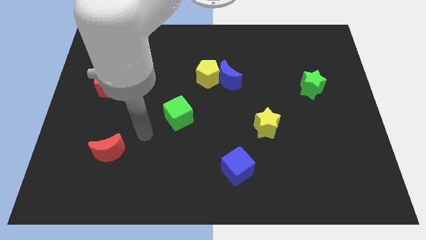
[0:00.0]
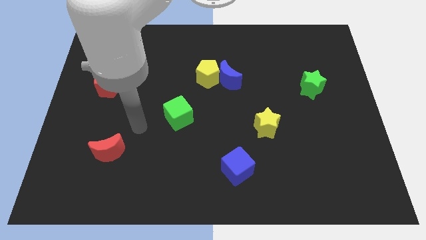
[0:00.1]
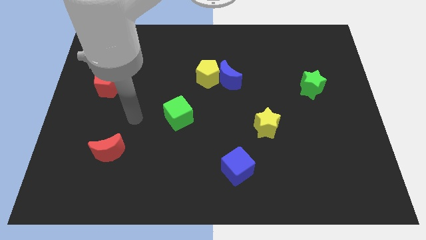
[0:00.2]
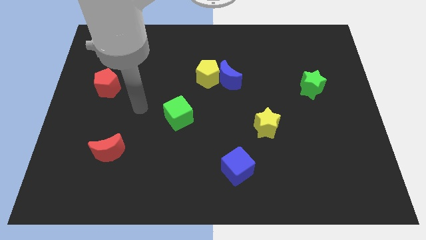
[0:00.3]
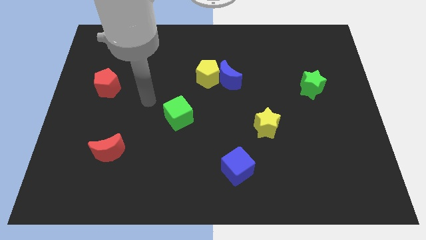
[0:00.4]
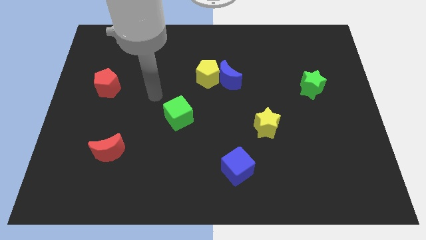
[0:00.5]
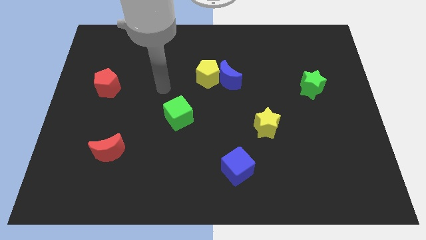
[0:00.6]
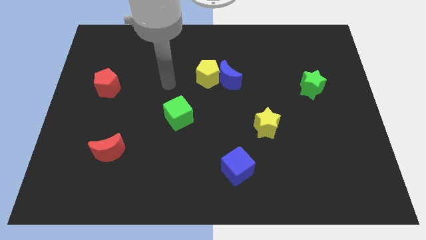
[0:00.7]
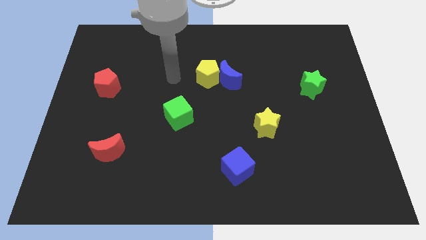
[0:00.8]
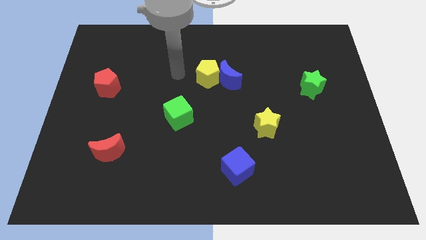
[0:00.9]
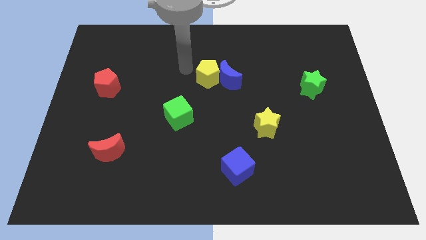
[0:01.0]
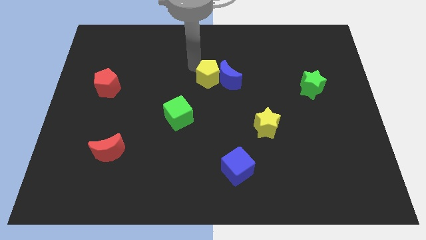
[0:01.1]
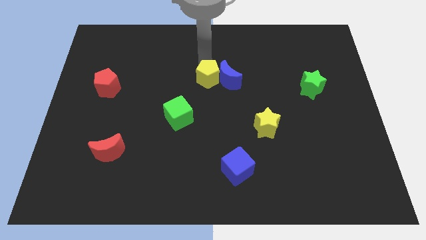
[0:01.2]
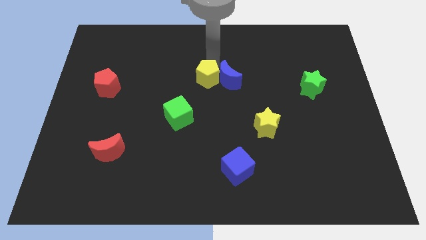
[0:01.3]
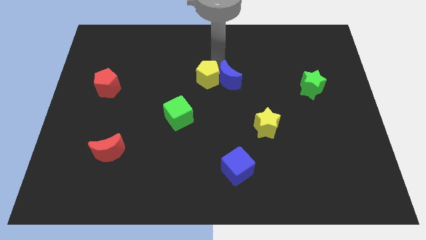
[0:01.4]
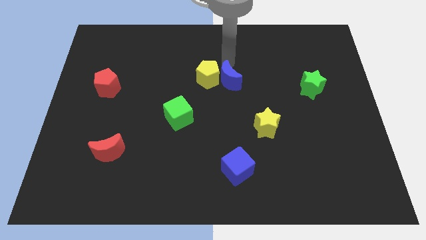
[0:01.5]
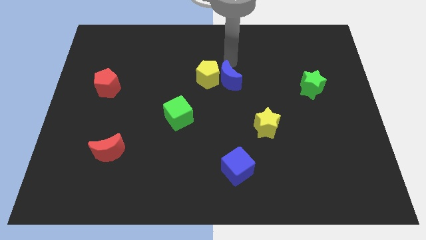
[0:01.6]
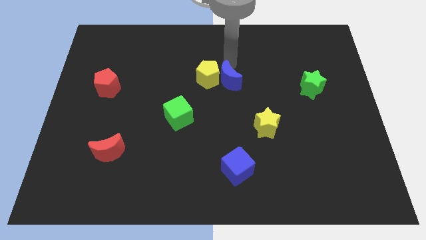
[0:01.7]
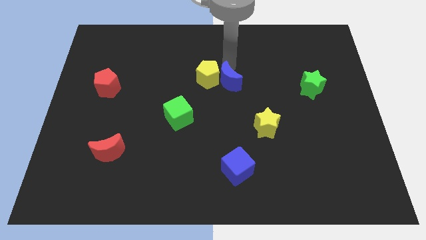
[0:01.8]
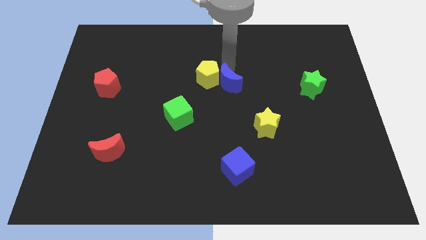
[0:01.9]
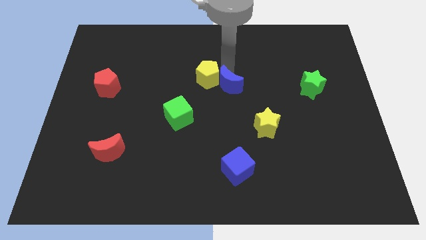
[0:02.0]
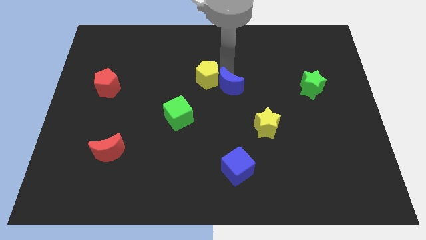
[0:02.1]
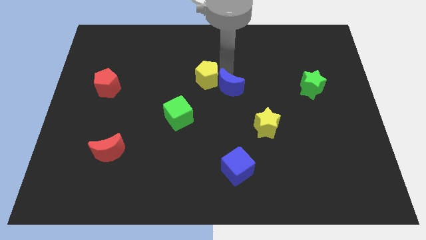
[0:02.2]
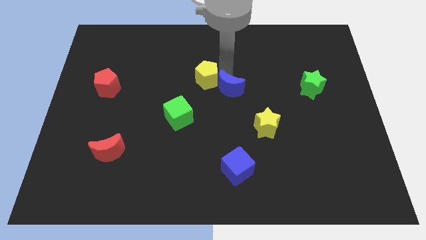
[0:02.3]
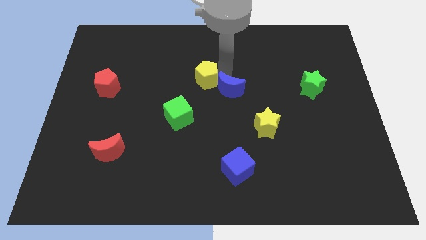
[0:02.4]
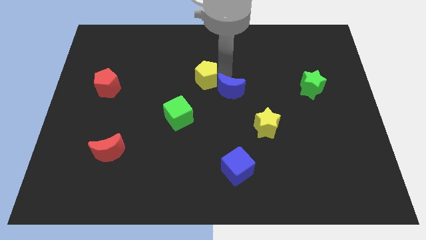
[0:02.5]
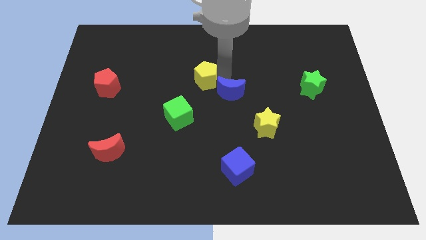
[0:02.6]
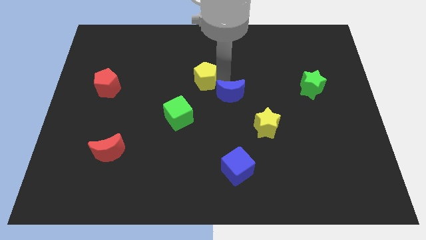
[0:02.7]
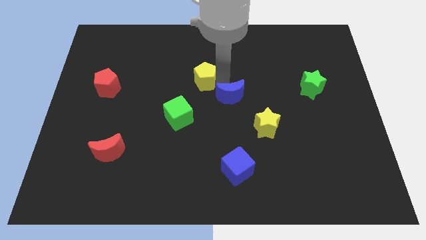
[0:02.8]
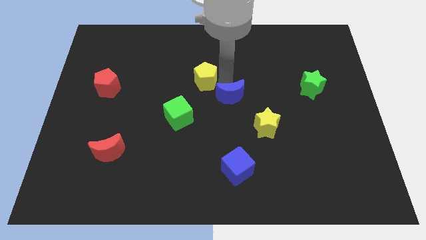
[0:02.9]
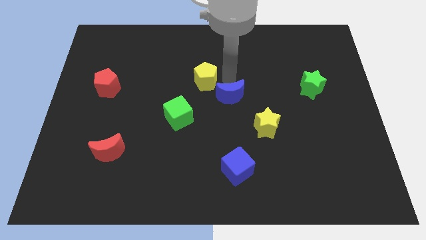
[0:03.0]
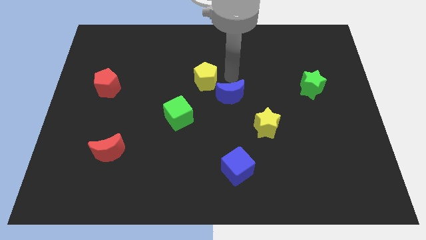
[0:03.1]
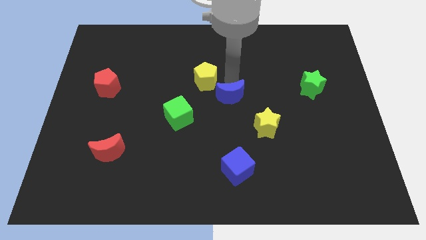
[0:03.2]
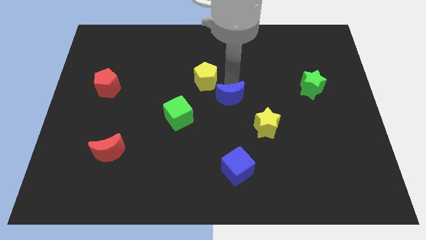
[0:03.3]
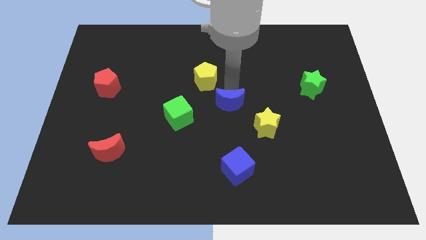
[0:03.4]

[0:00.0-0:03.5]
slide the blue moon downwards a bit

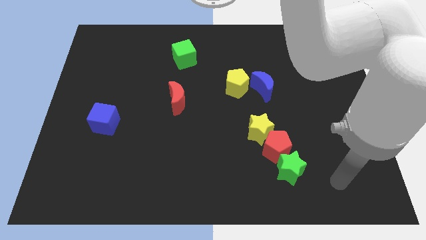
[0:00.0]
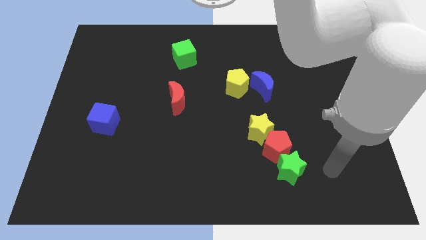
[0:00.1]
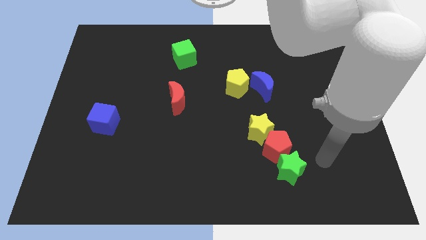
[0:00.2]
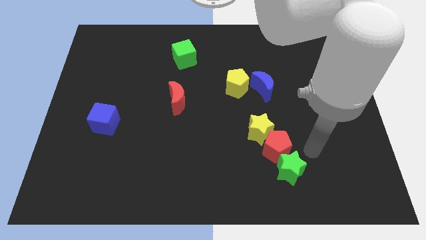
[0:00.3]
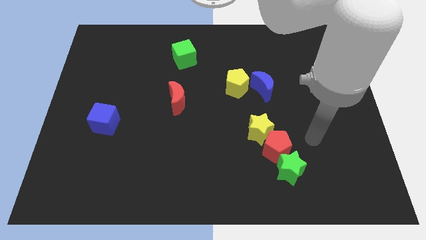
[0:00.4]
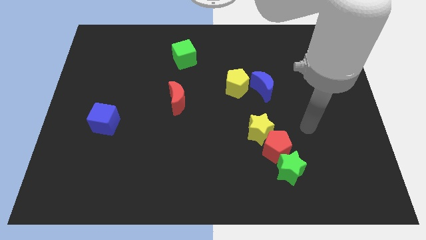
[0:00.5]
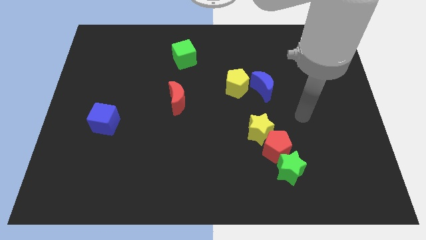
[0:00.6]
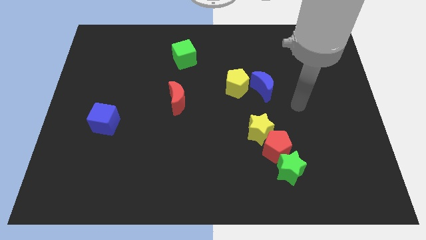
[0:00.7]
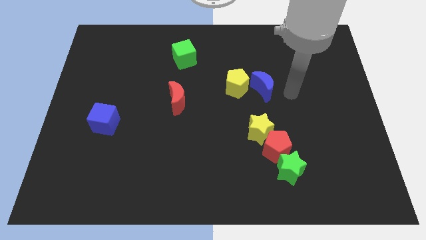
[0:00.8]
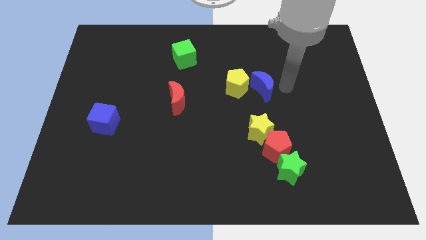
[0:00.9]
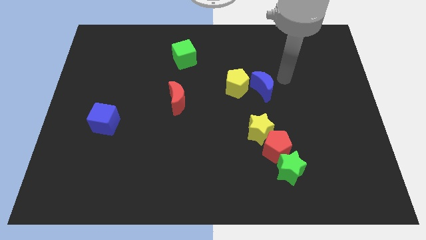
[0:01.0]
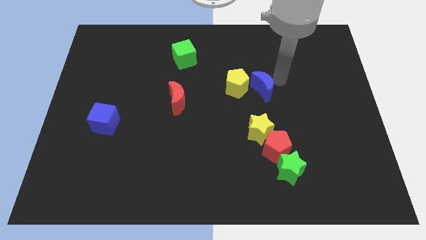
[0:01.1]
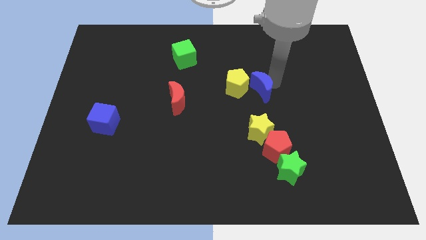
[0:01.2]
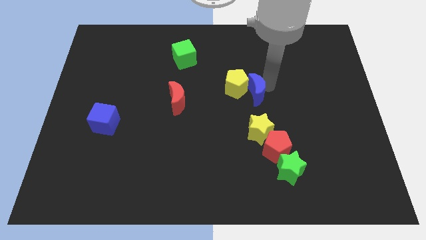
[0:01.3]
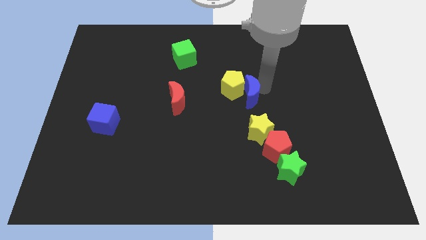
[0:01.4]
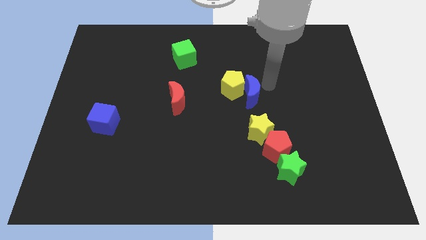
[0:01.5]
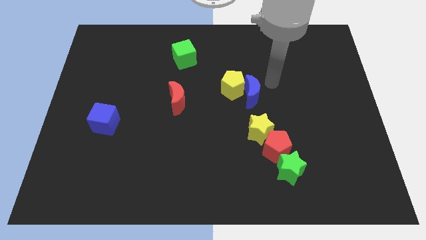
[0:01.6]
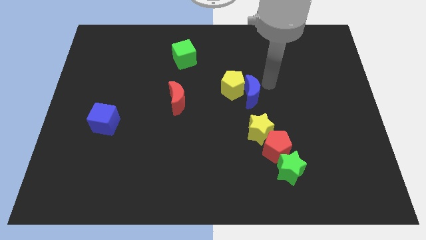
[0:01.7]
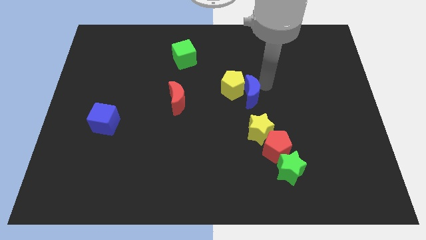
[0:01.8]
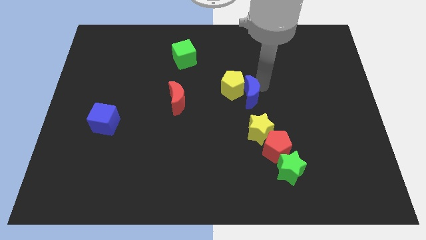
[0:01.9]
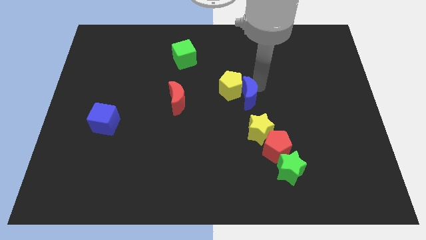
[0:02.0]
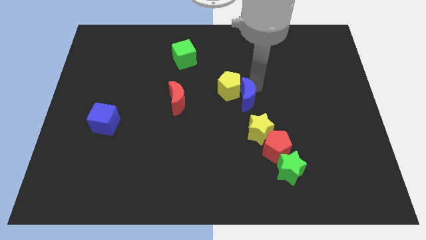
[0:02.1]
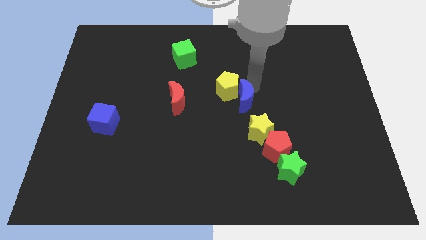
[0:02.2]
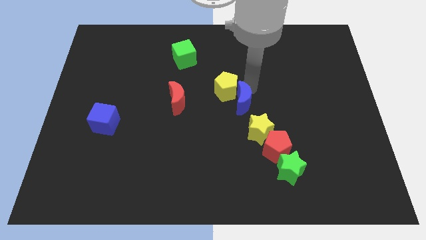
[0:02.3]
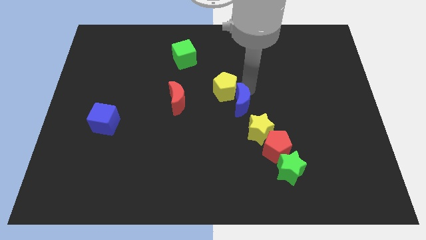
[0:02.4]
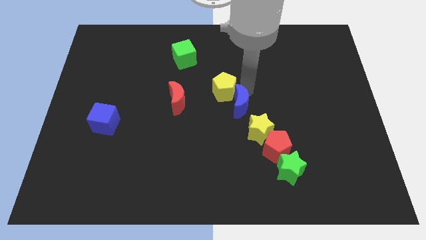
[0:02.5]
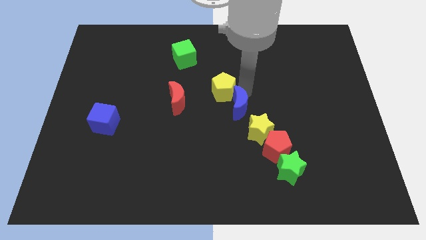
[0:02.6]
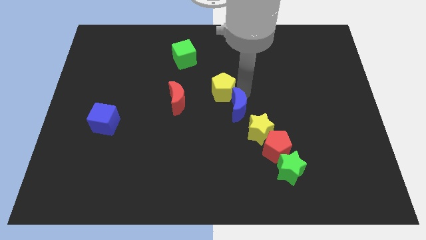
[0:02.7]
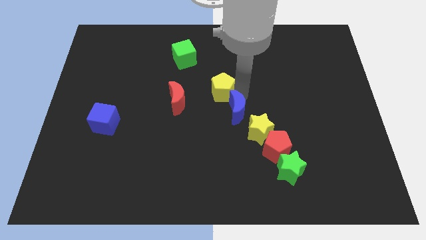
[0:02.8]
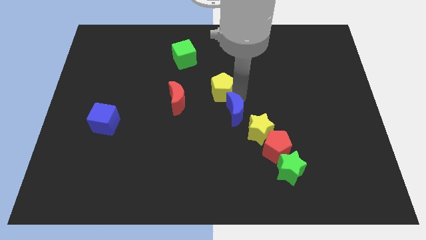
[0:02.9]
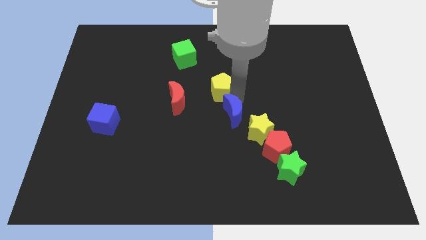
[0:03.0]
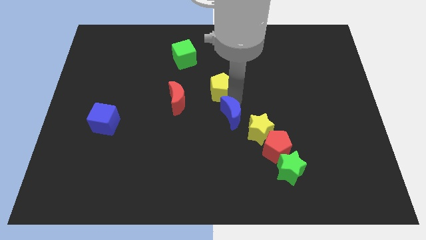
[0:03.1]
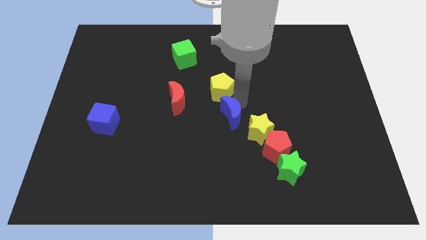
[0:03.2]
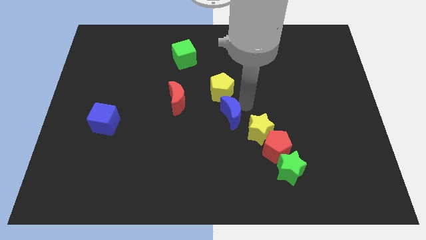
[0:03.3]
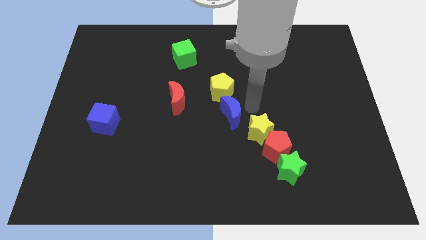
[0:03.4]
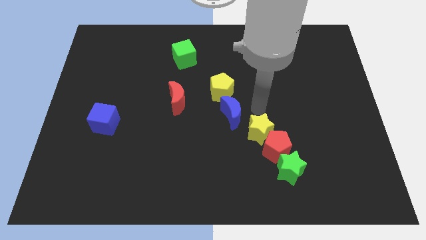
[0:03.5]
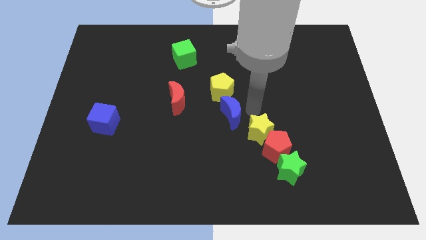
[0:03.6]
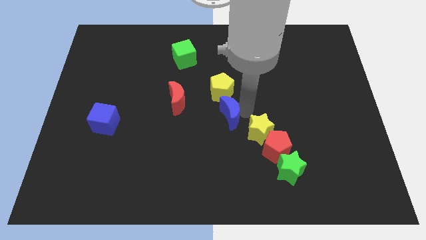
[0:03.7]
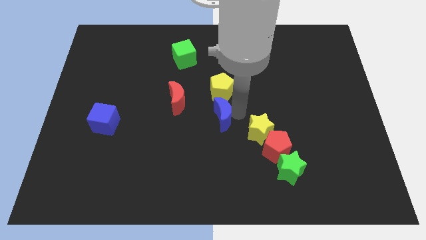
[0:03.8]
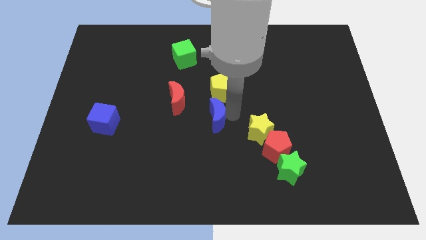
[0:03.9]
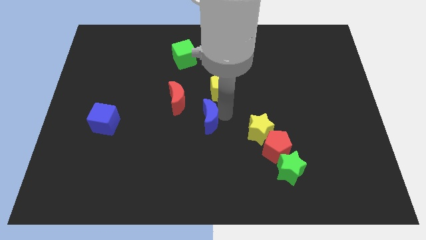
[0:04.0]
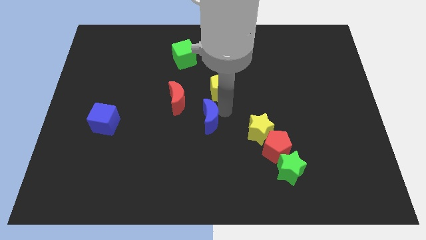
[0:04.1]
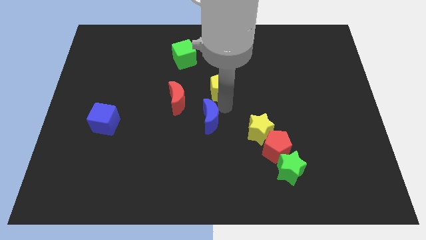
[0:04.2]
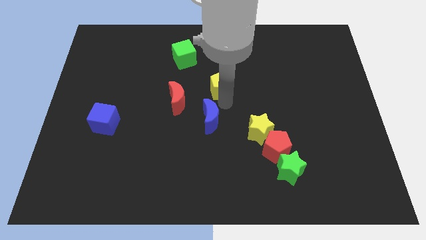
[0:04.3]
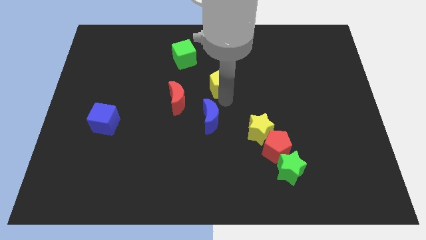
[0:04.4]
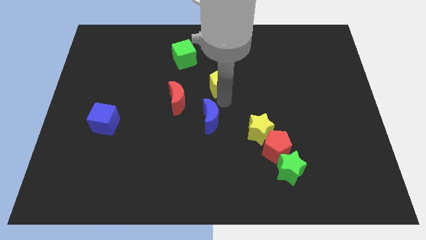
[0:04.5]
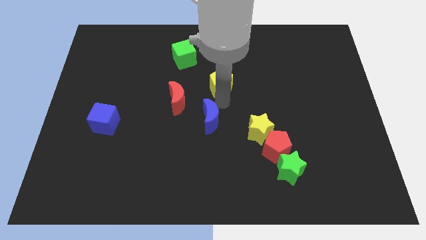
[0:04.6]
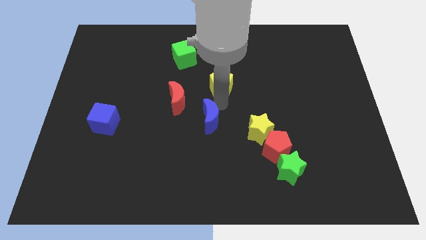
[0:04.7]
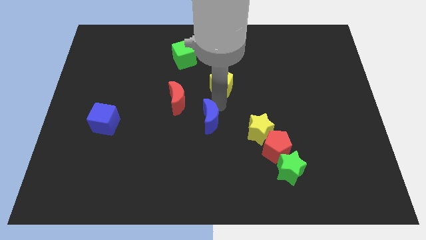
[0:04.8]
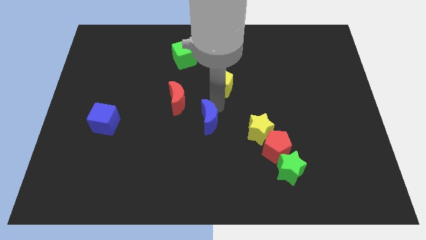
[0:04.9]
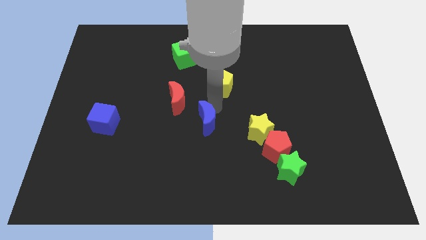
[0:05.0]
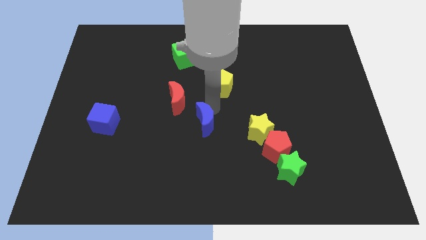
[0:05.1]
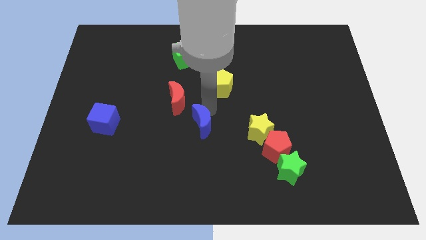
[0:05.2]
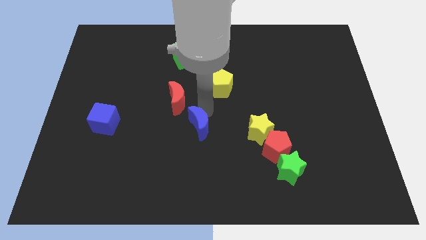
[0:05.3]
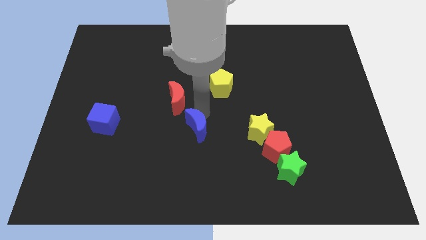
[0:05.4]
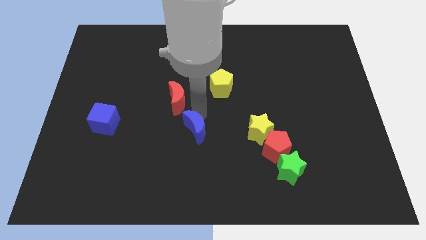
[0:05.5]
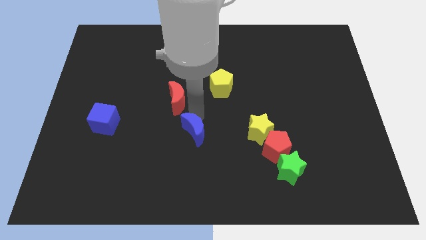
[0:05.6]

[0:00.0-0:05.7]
push the blue moon downwards and to the left diagonally
